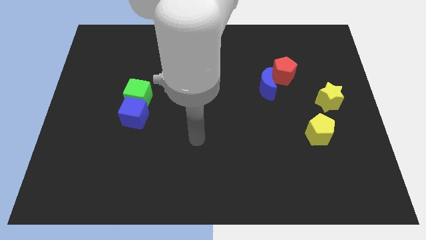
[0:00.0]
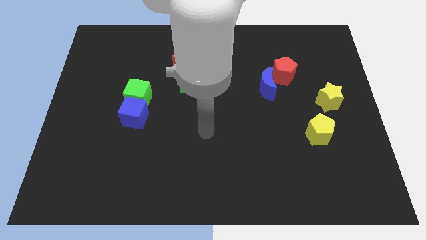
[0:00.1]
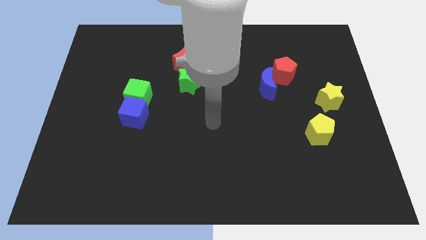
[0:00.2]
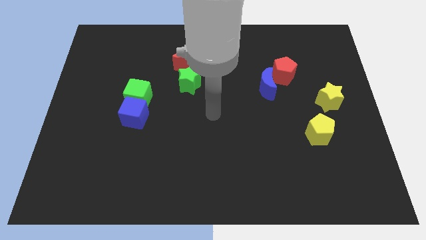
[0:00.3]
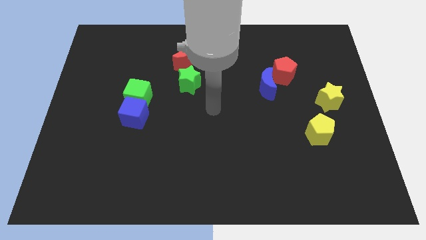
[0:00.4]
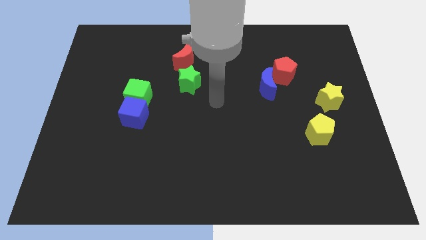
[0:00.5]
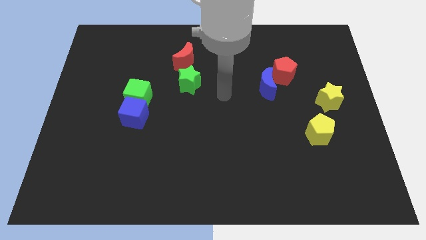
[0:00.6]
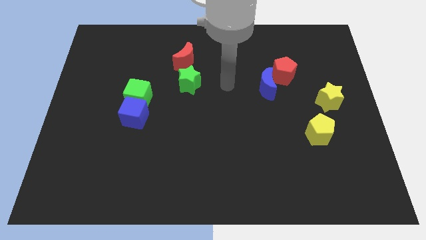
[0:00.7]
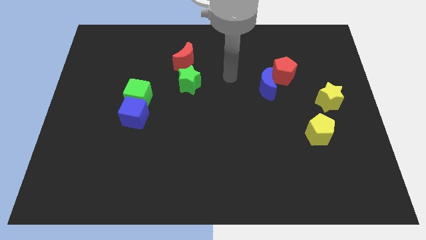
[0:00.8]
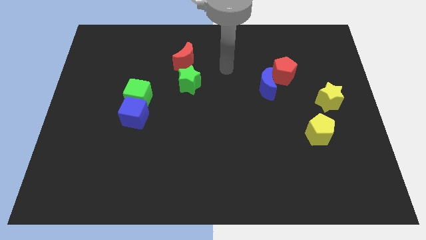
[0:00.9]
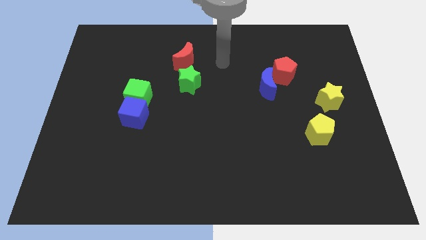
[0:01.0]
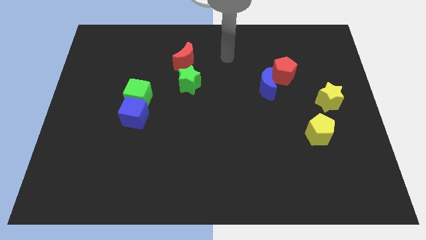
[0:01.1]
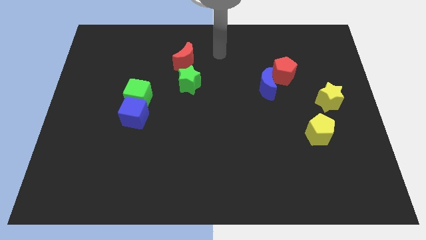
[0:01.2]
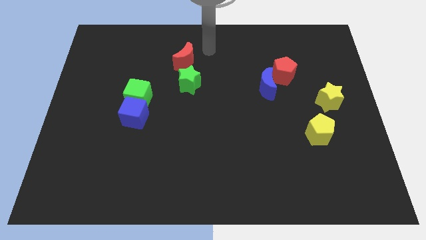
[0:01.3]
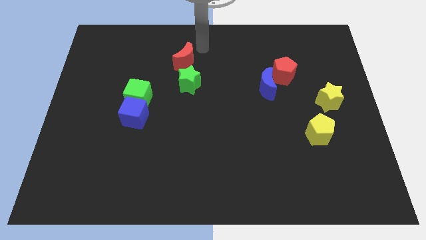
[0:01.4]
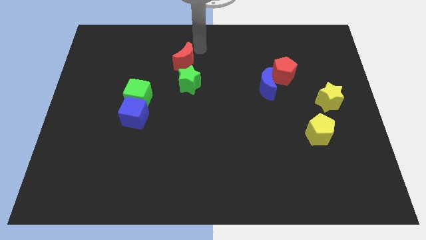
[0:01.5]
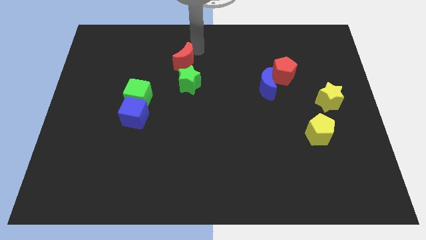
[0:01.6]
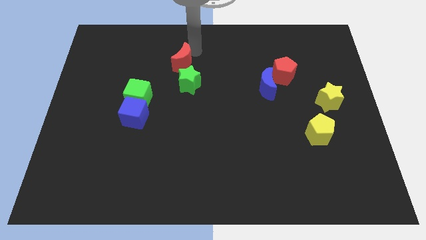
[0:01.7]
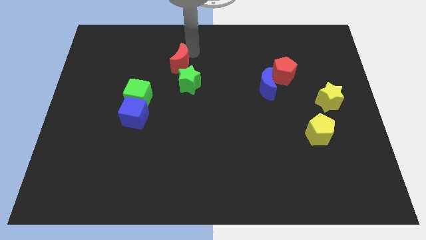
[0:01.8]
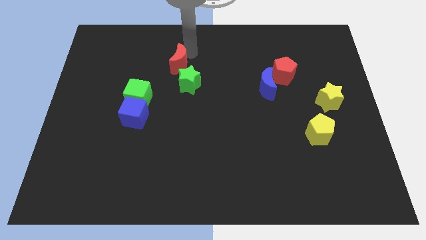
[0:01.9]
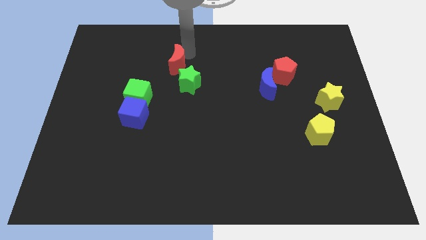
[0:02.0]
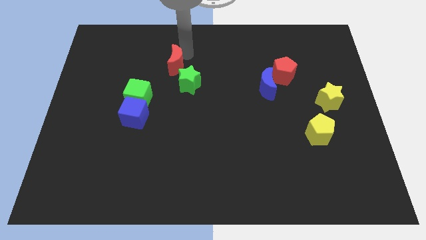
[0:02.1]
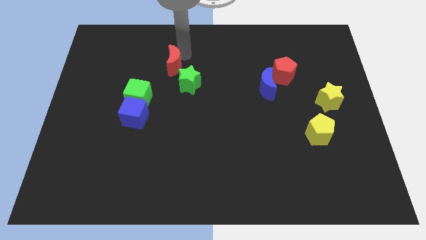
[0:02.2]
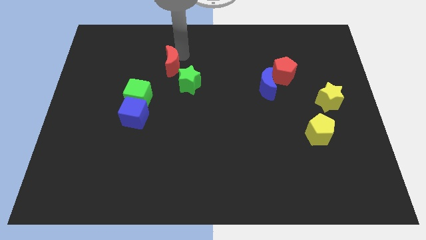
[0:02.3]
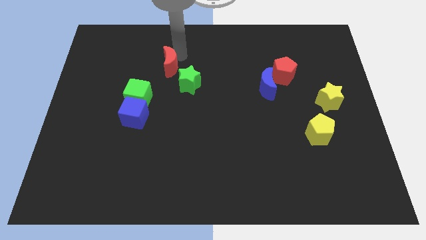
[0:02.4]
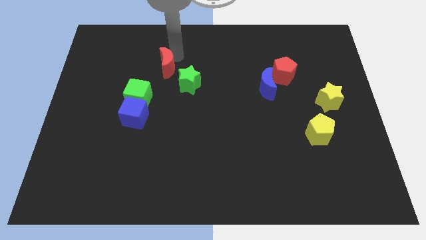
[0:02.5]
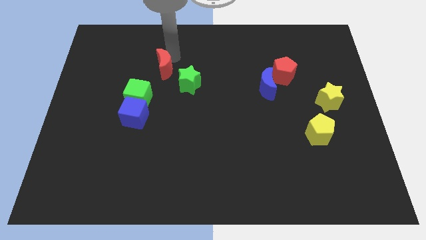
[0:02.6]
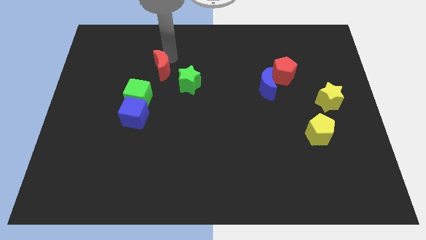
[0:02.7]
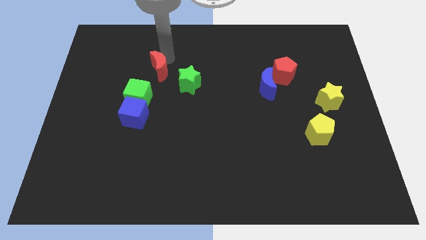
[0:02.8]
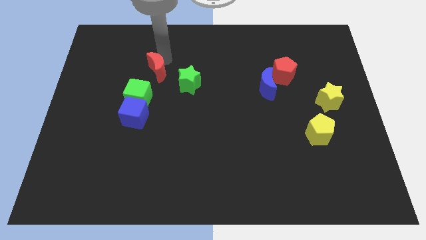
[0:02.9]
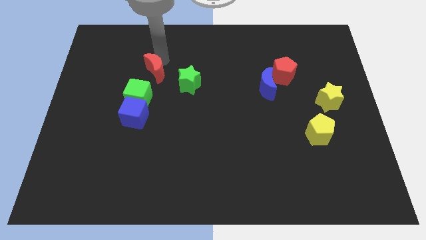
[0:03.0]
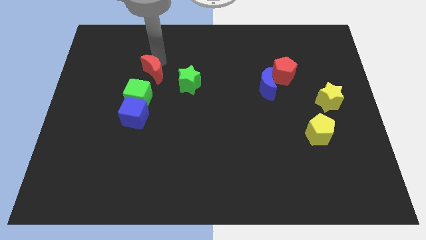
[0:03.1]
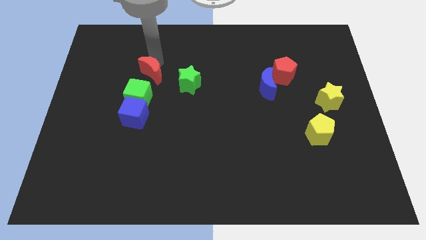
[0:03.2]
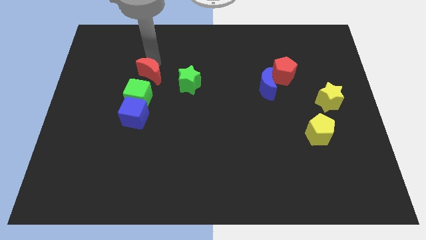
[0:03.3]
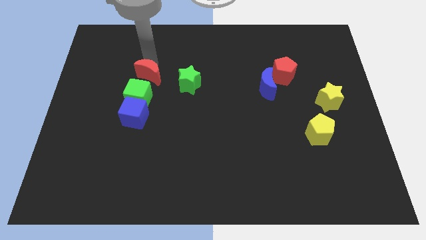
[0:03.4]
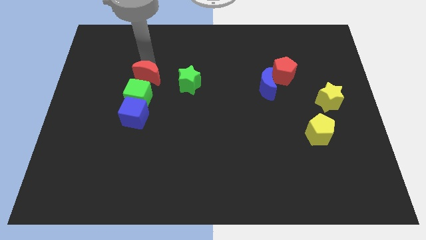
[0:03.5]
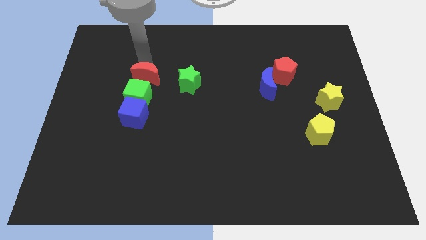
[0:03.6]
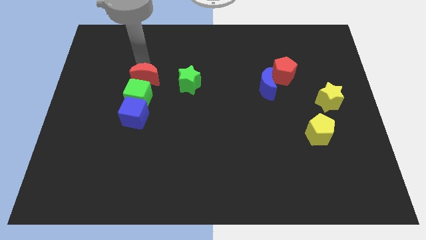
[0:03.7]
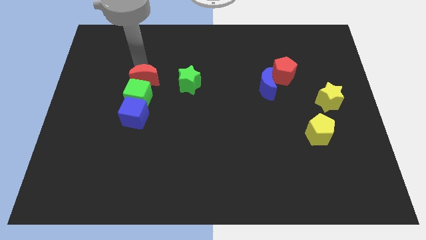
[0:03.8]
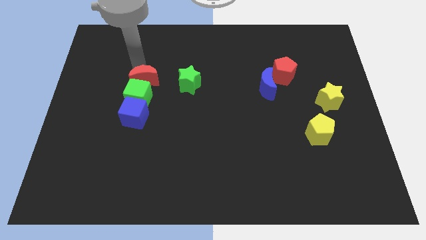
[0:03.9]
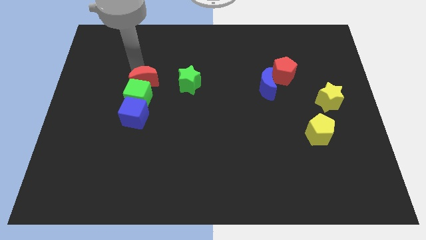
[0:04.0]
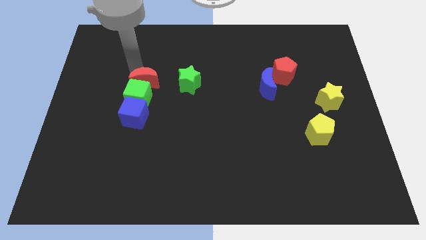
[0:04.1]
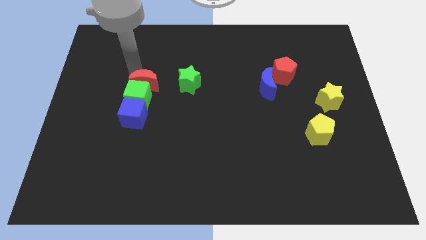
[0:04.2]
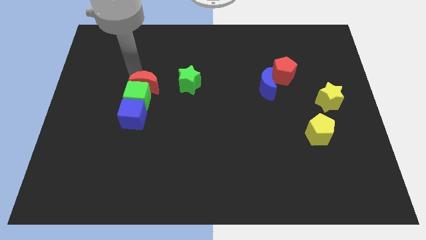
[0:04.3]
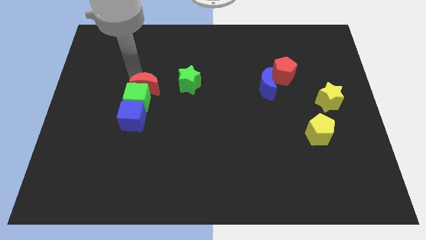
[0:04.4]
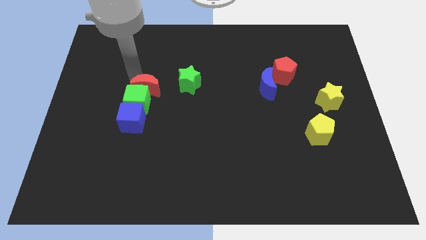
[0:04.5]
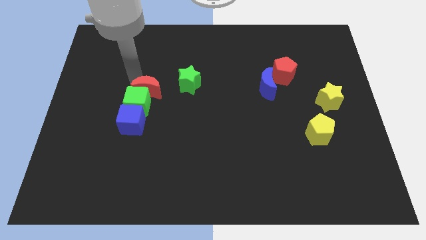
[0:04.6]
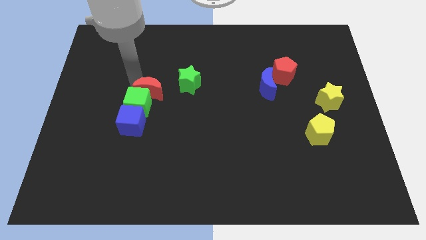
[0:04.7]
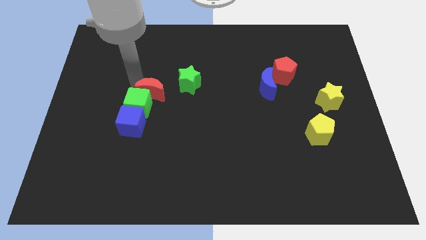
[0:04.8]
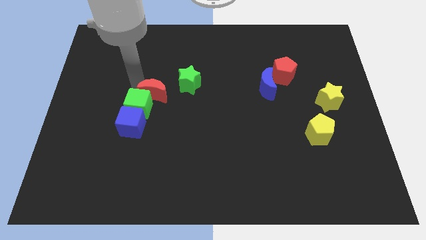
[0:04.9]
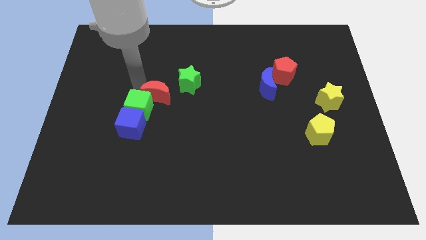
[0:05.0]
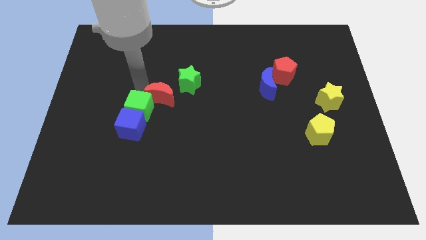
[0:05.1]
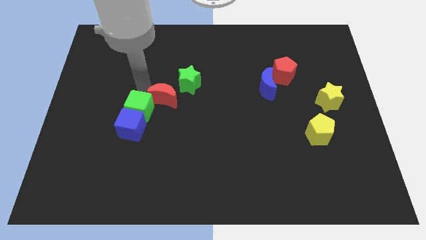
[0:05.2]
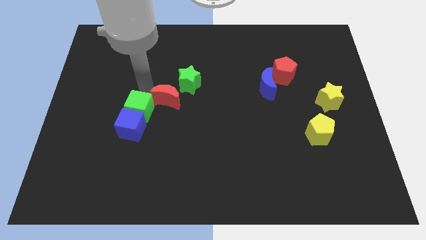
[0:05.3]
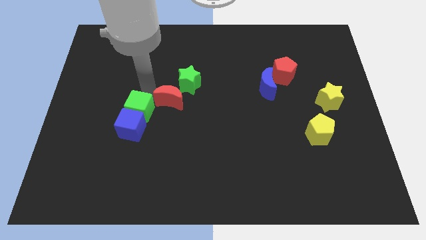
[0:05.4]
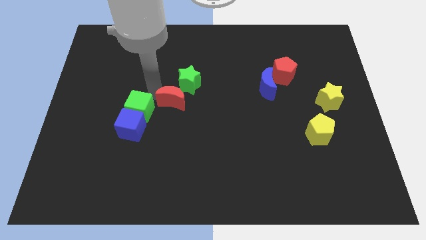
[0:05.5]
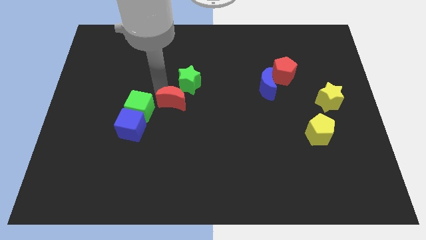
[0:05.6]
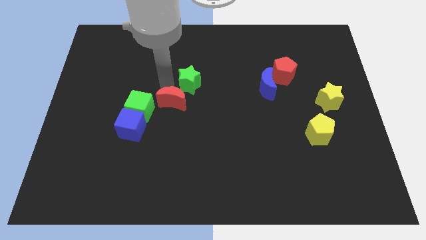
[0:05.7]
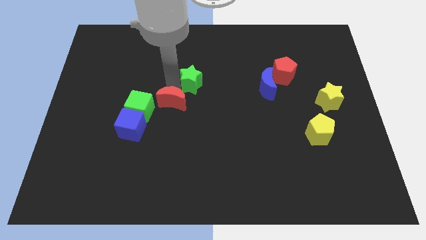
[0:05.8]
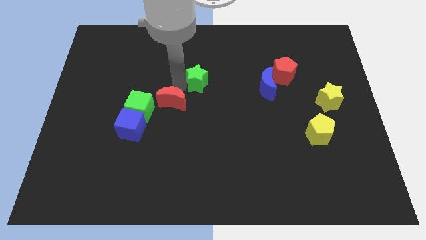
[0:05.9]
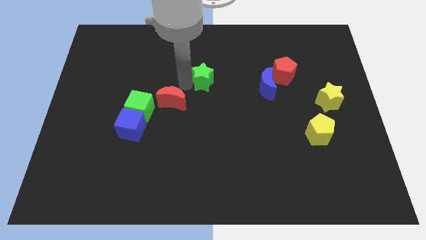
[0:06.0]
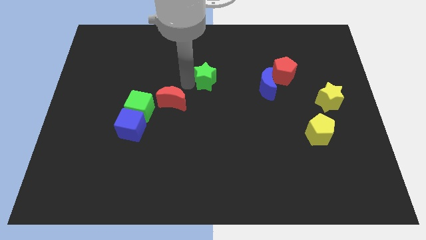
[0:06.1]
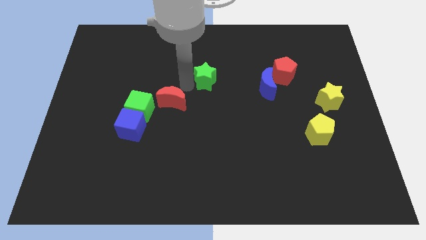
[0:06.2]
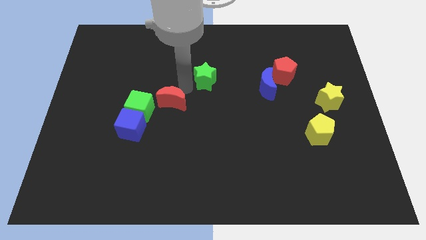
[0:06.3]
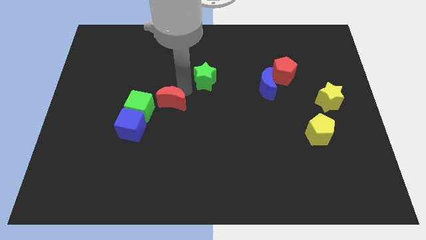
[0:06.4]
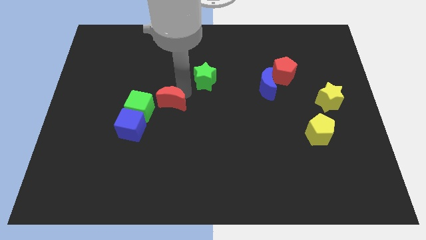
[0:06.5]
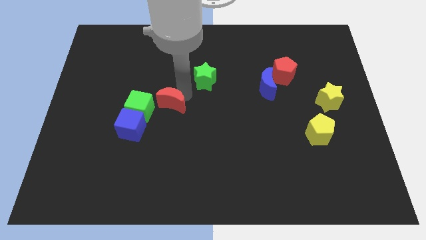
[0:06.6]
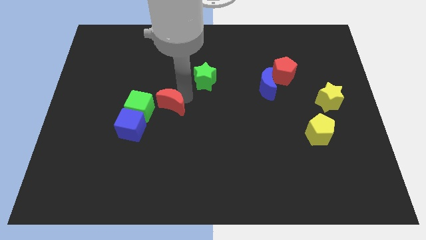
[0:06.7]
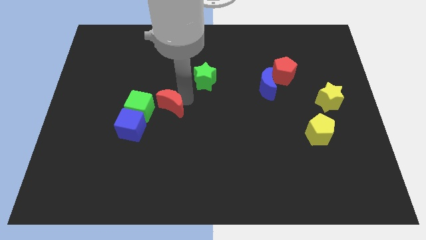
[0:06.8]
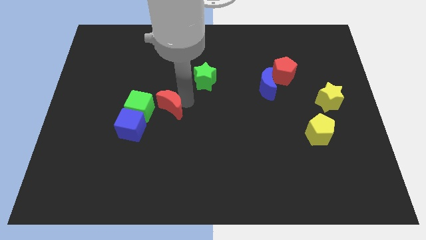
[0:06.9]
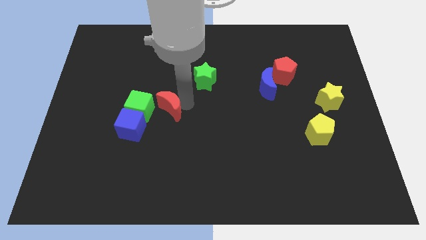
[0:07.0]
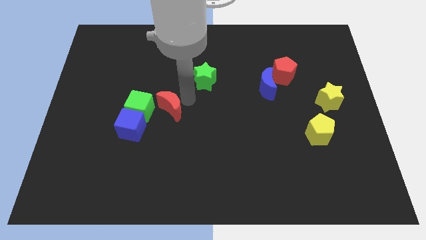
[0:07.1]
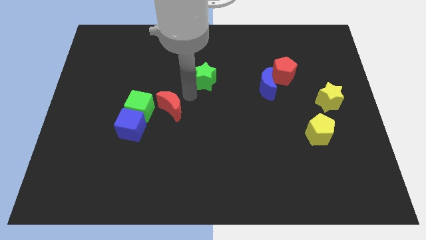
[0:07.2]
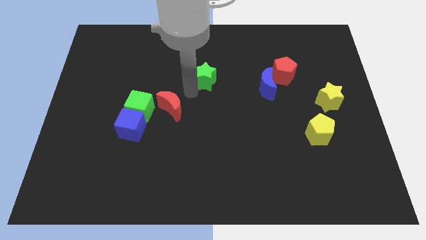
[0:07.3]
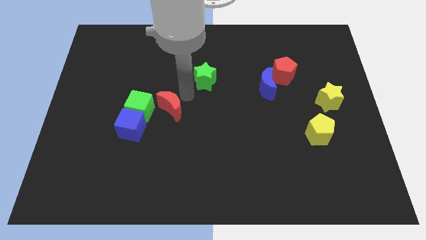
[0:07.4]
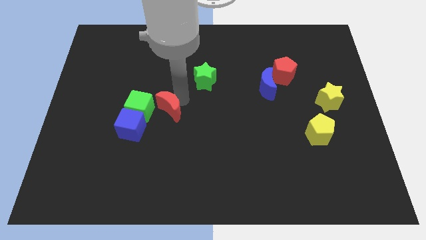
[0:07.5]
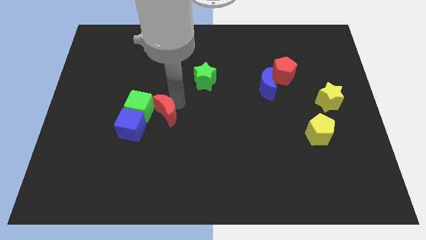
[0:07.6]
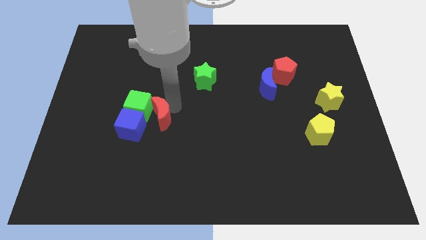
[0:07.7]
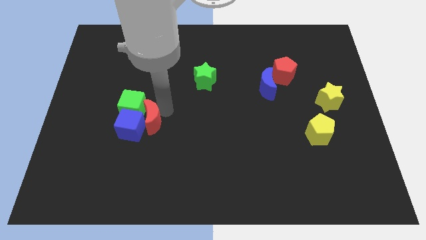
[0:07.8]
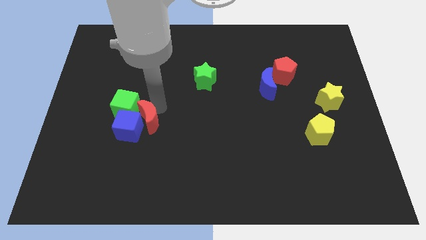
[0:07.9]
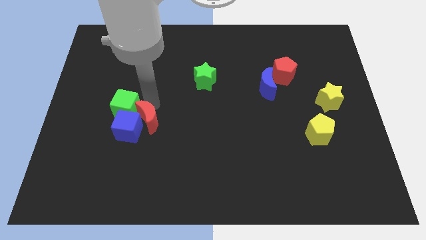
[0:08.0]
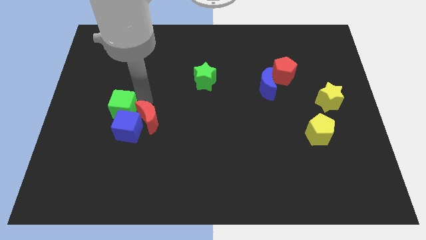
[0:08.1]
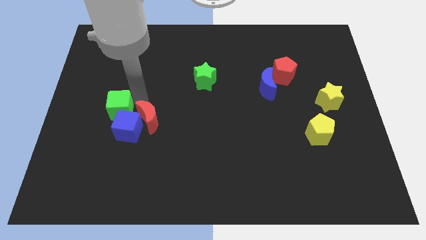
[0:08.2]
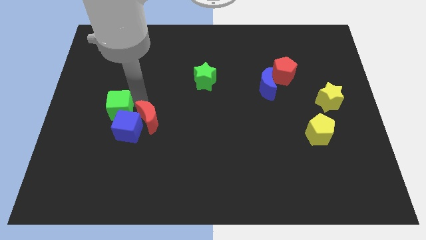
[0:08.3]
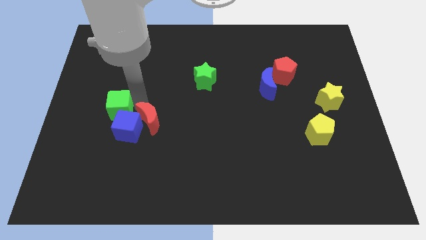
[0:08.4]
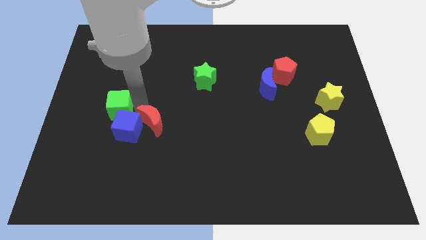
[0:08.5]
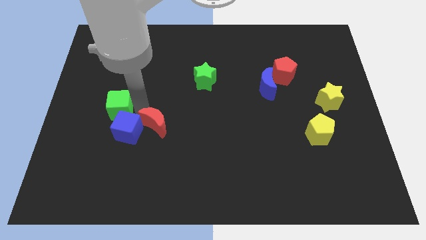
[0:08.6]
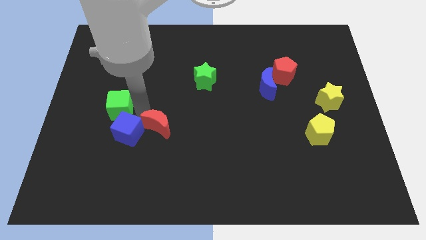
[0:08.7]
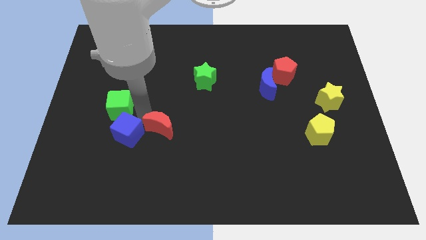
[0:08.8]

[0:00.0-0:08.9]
slide the red moon down
